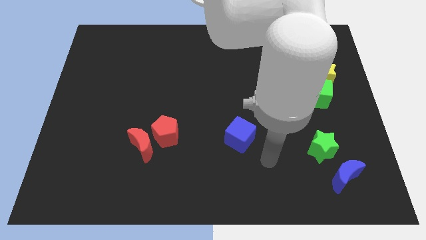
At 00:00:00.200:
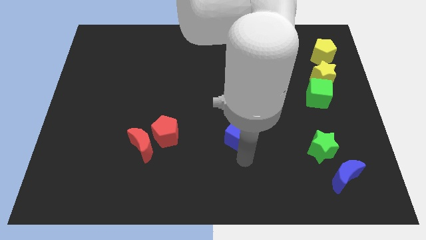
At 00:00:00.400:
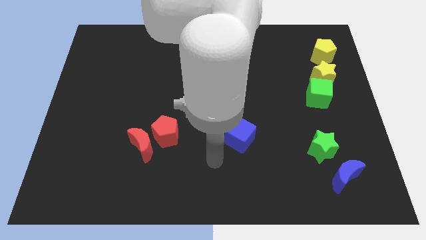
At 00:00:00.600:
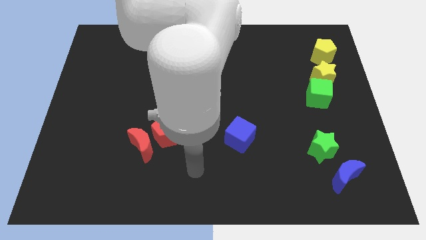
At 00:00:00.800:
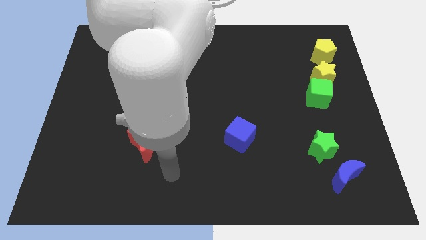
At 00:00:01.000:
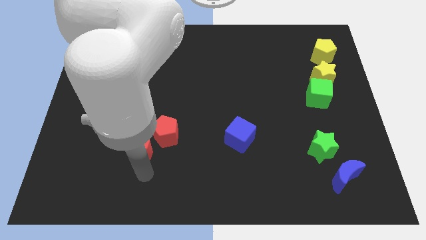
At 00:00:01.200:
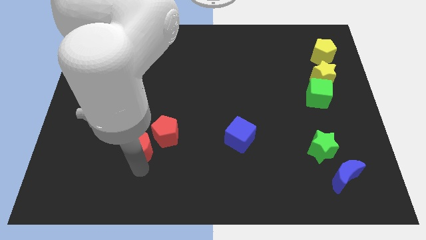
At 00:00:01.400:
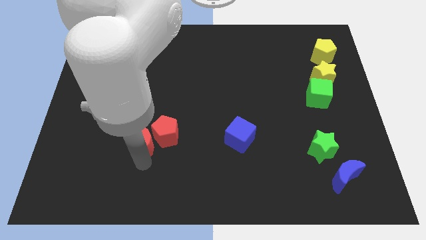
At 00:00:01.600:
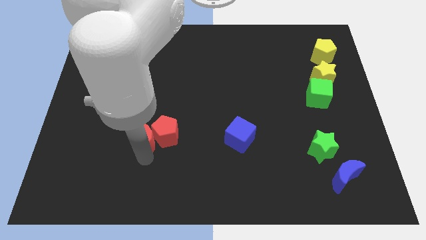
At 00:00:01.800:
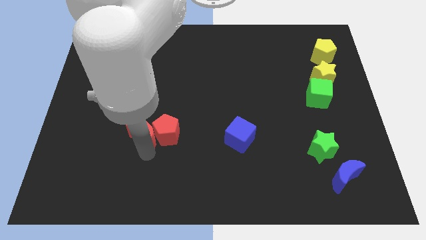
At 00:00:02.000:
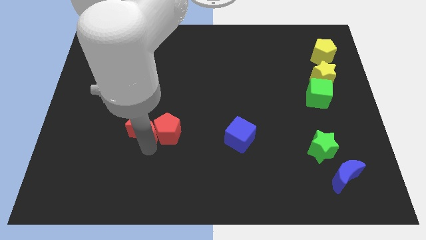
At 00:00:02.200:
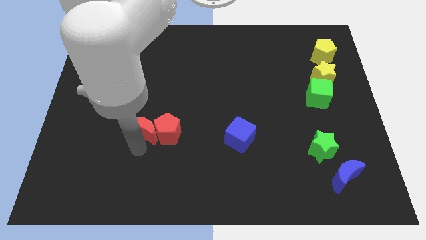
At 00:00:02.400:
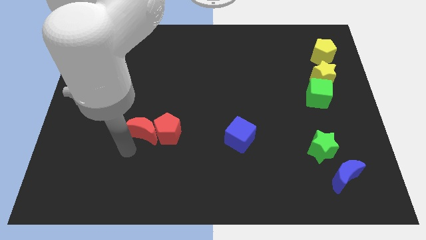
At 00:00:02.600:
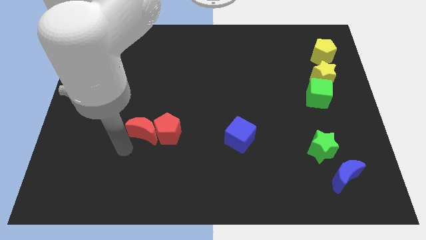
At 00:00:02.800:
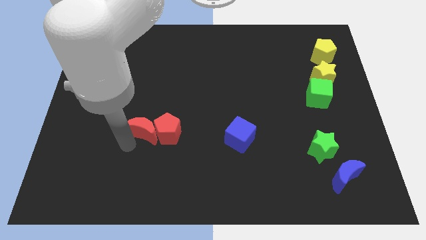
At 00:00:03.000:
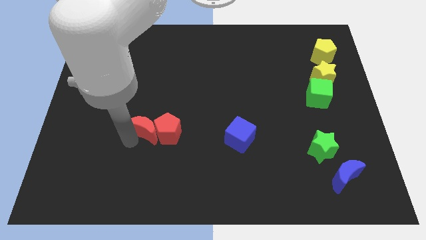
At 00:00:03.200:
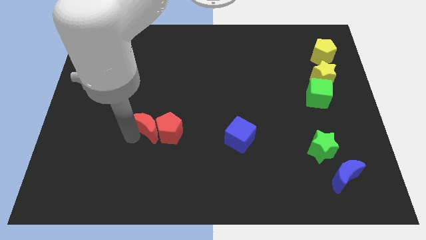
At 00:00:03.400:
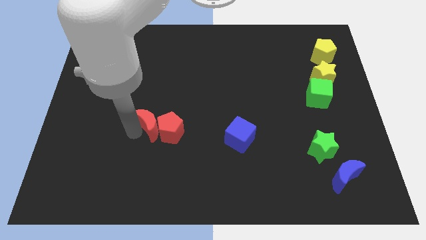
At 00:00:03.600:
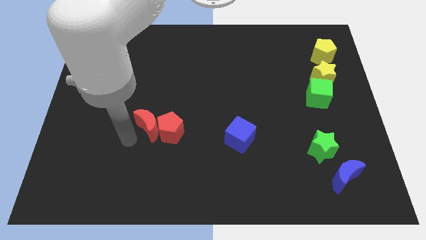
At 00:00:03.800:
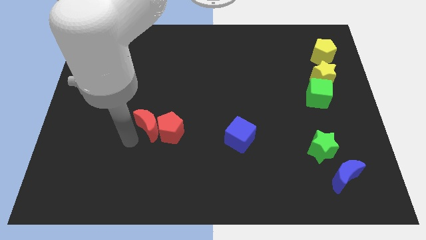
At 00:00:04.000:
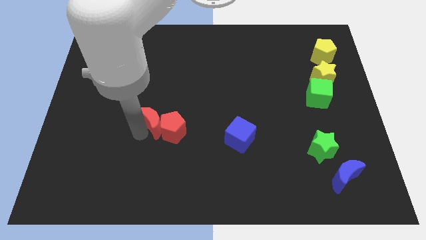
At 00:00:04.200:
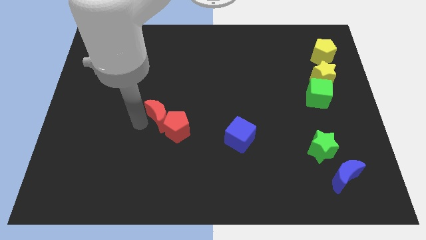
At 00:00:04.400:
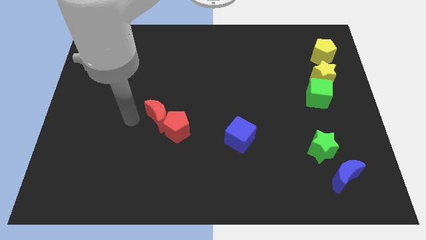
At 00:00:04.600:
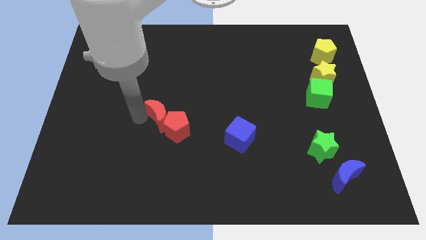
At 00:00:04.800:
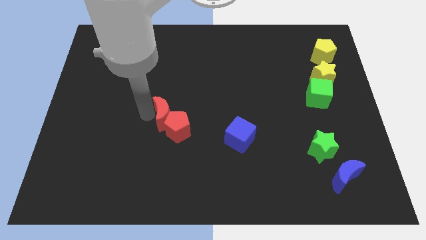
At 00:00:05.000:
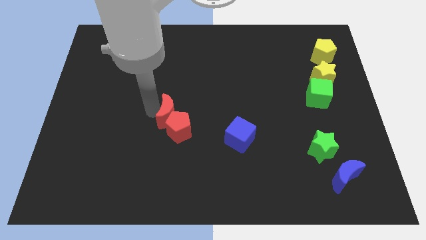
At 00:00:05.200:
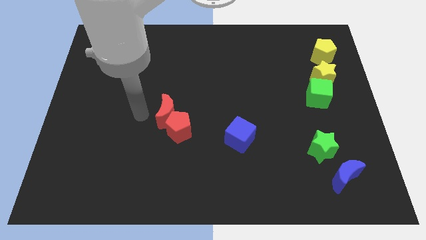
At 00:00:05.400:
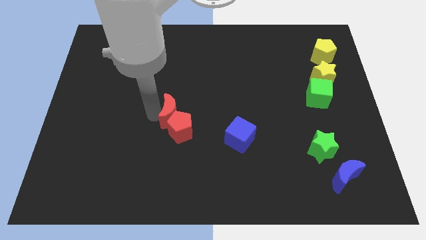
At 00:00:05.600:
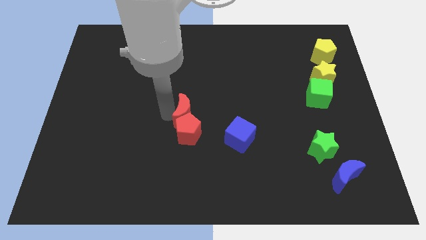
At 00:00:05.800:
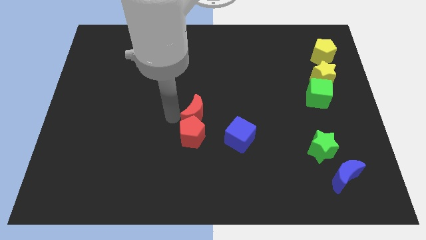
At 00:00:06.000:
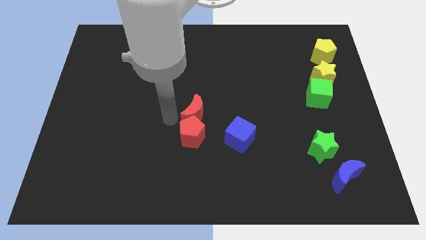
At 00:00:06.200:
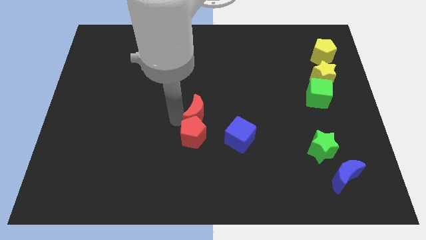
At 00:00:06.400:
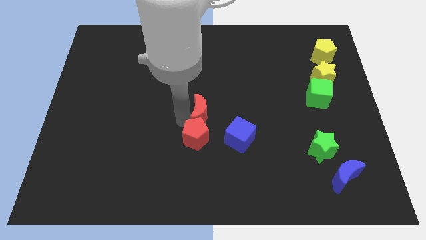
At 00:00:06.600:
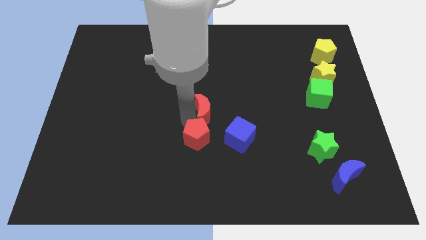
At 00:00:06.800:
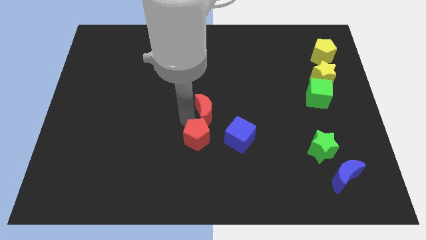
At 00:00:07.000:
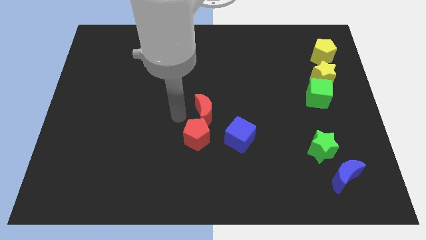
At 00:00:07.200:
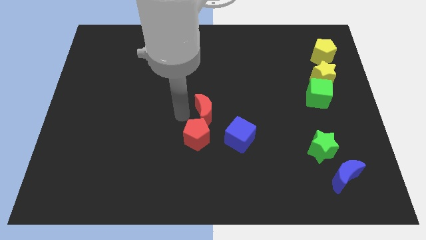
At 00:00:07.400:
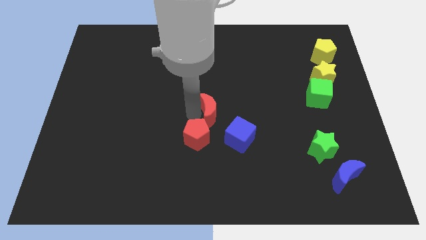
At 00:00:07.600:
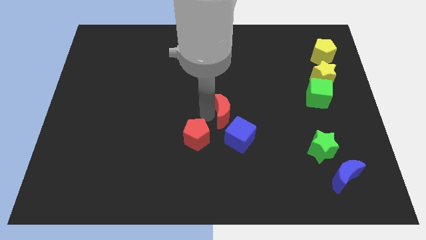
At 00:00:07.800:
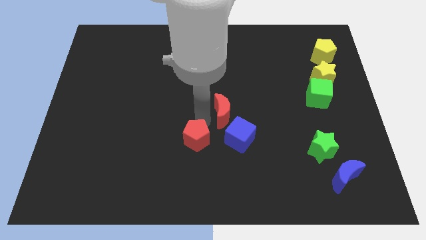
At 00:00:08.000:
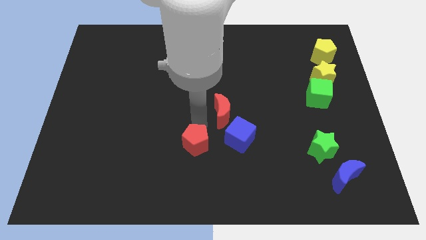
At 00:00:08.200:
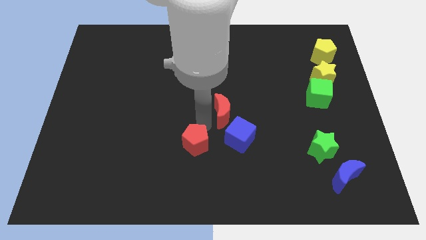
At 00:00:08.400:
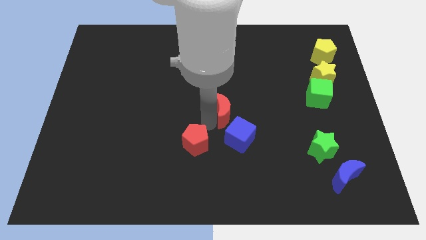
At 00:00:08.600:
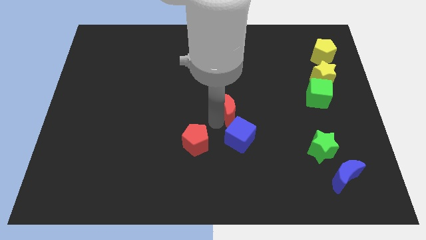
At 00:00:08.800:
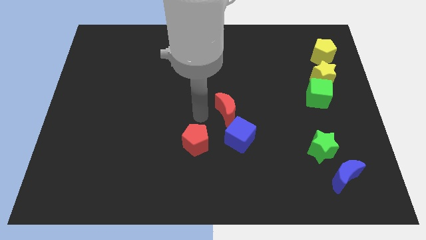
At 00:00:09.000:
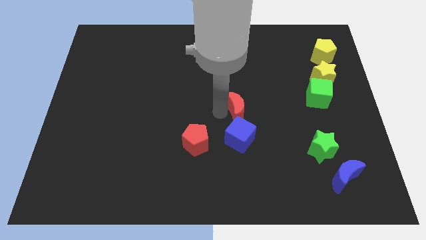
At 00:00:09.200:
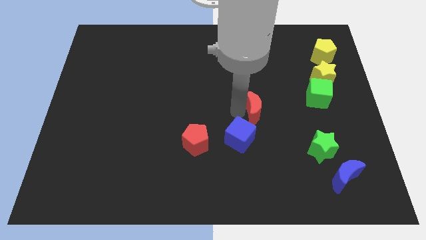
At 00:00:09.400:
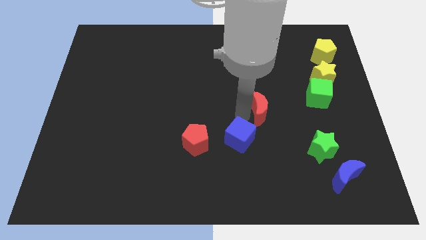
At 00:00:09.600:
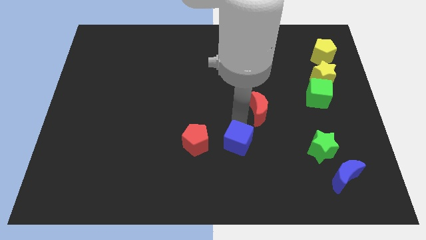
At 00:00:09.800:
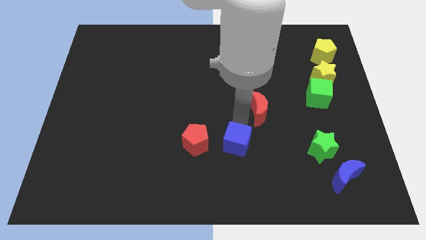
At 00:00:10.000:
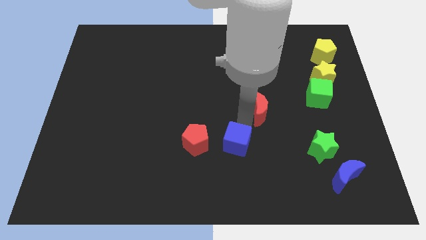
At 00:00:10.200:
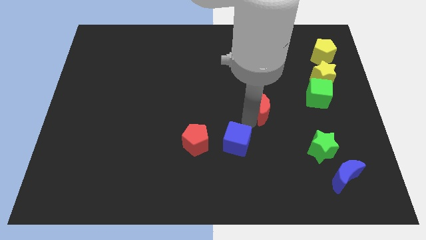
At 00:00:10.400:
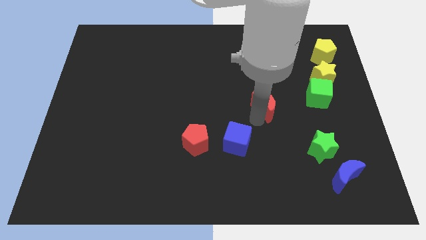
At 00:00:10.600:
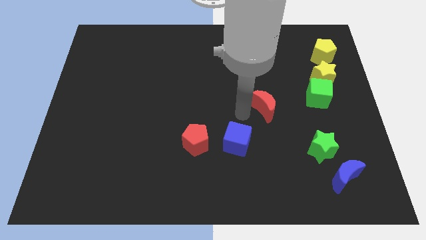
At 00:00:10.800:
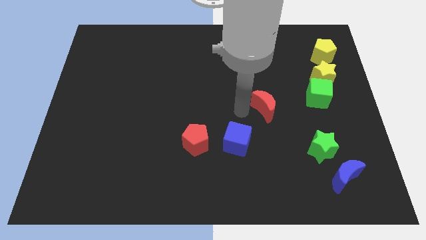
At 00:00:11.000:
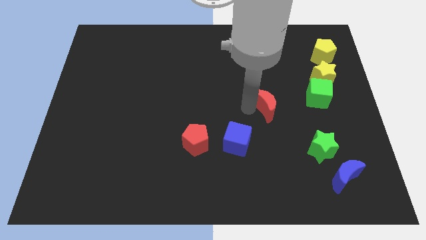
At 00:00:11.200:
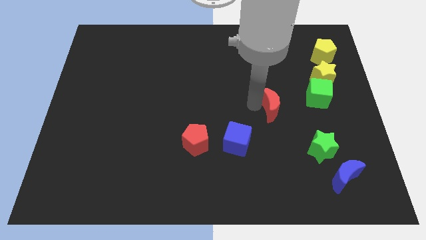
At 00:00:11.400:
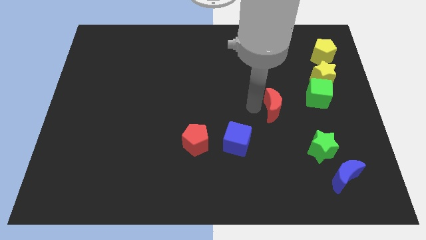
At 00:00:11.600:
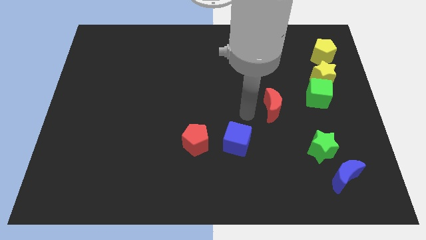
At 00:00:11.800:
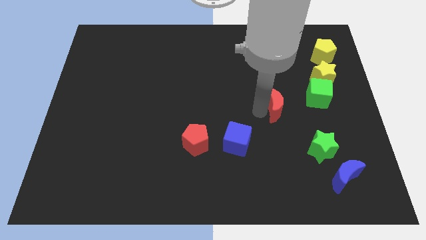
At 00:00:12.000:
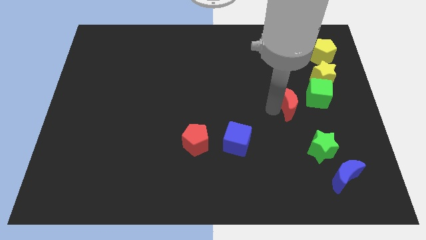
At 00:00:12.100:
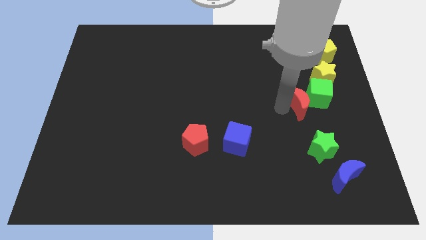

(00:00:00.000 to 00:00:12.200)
push the red moon close to the green cube

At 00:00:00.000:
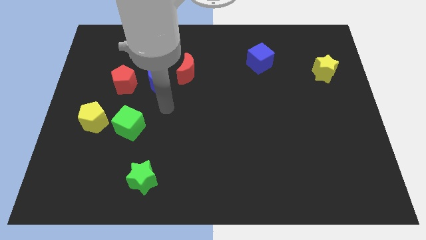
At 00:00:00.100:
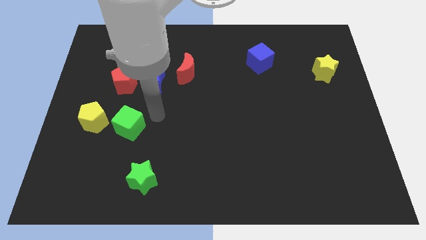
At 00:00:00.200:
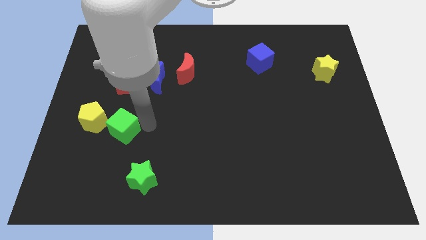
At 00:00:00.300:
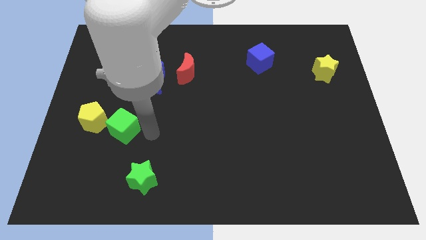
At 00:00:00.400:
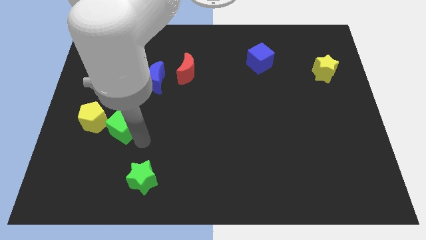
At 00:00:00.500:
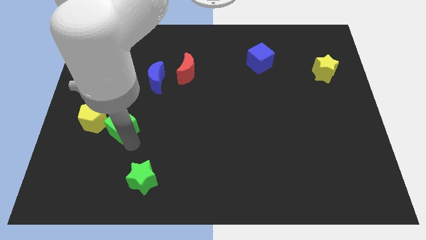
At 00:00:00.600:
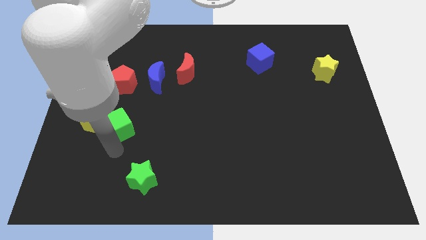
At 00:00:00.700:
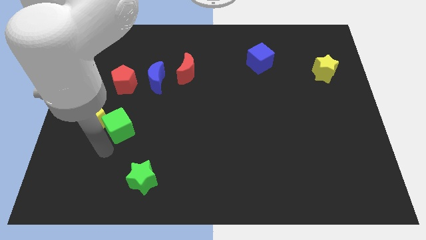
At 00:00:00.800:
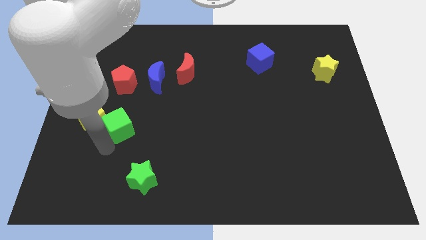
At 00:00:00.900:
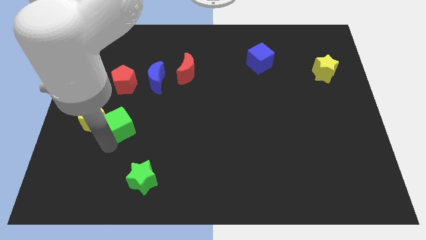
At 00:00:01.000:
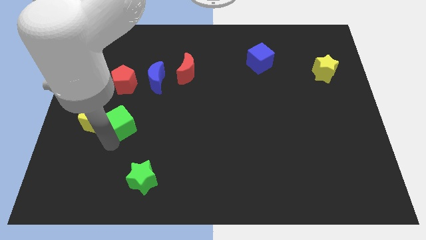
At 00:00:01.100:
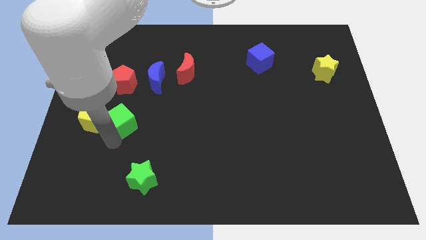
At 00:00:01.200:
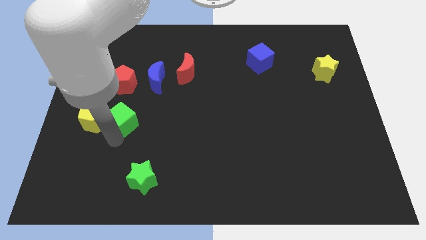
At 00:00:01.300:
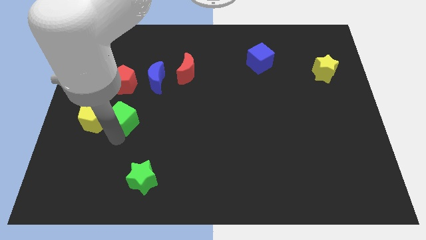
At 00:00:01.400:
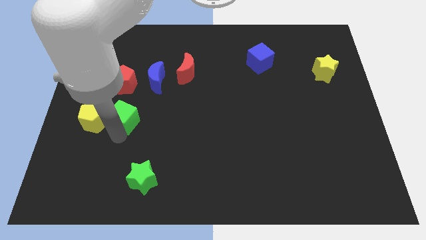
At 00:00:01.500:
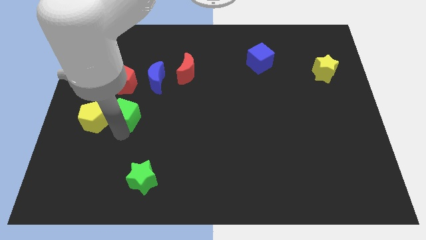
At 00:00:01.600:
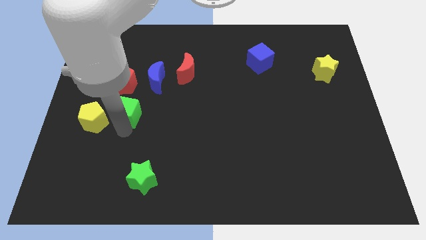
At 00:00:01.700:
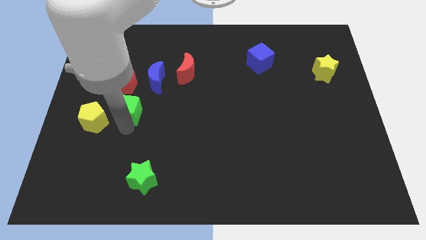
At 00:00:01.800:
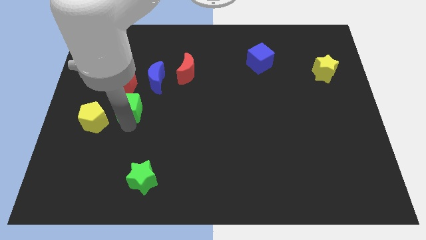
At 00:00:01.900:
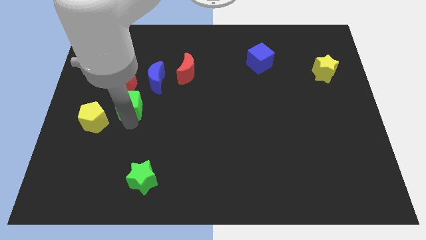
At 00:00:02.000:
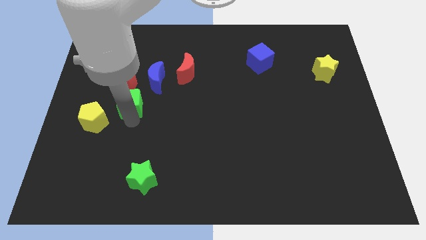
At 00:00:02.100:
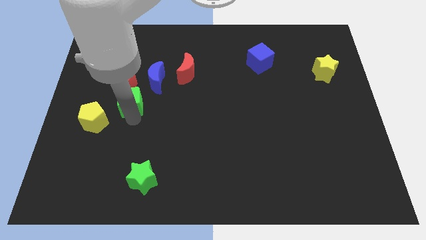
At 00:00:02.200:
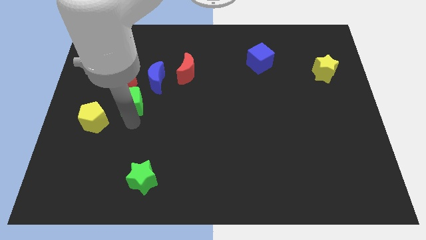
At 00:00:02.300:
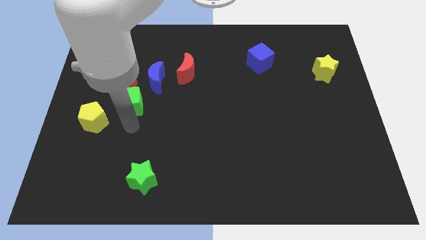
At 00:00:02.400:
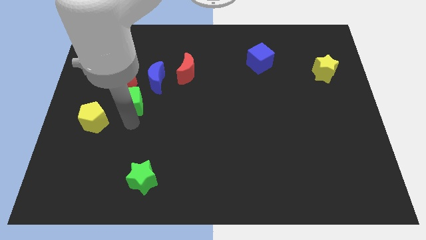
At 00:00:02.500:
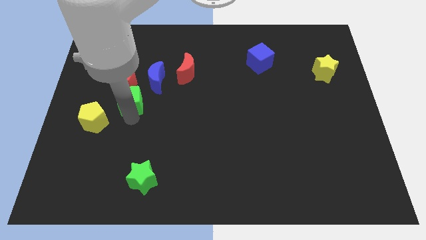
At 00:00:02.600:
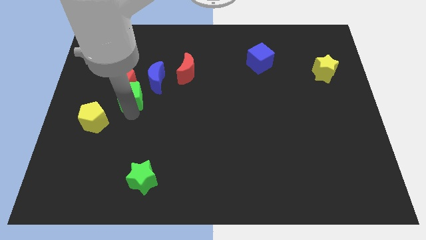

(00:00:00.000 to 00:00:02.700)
move the green cube next to the red pentagon
